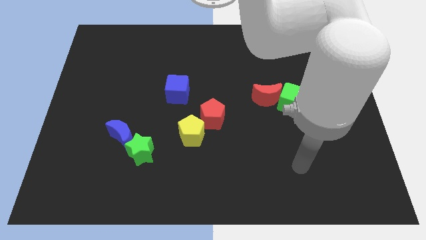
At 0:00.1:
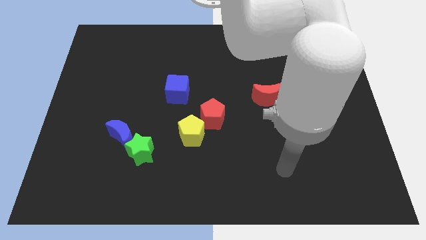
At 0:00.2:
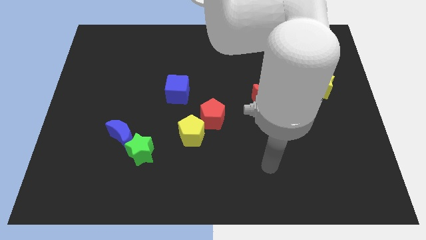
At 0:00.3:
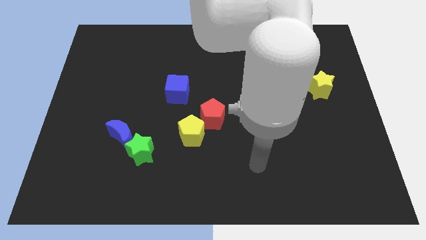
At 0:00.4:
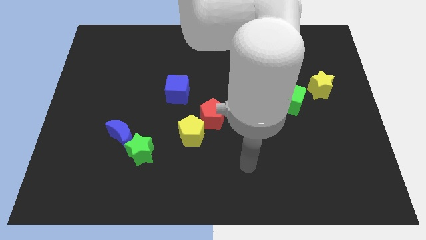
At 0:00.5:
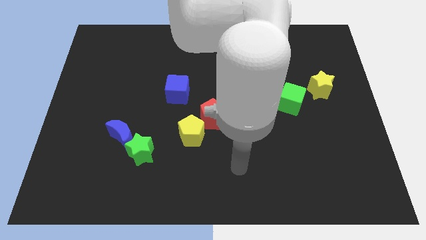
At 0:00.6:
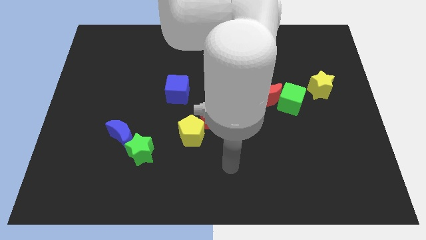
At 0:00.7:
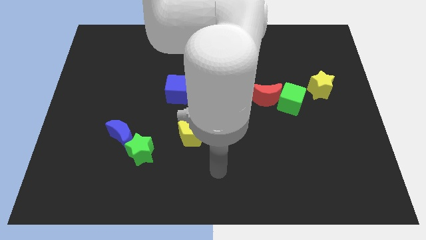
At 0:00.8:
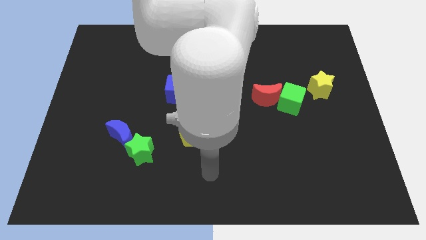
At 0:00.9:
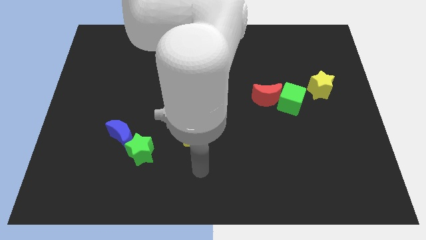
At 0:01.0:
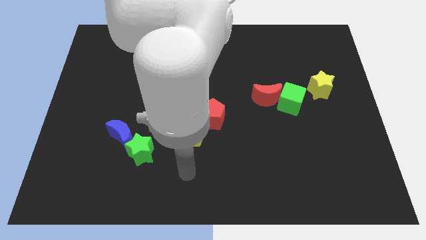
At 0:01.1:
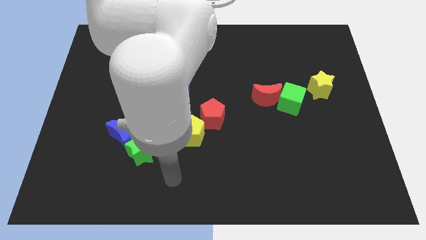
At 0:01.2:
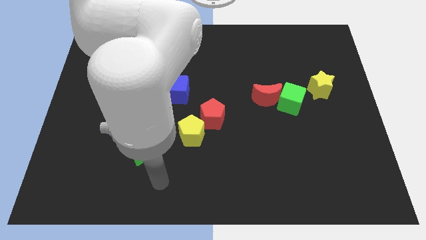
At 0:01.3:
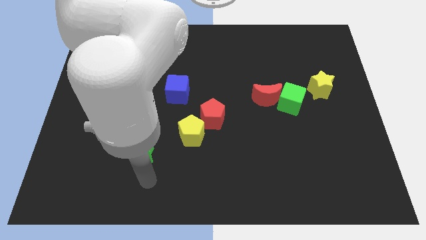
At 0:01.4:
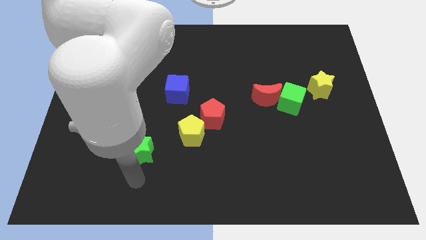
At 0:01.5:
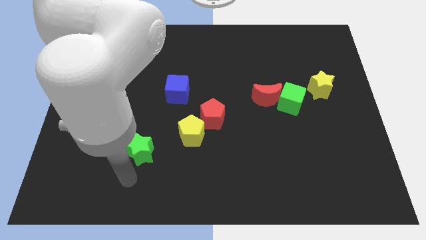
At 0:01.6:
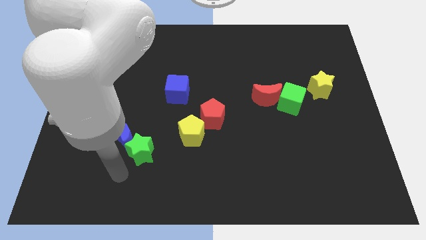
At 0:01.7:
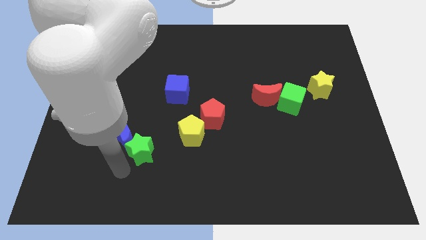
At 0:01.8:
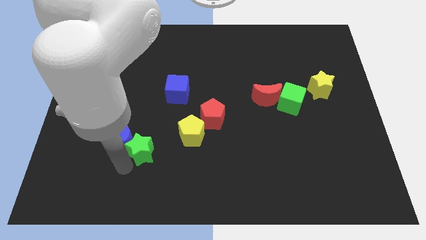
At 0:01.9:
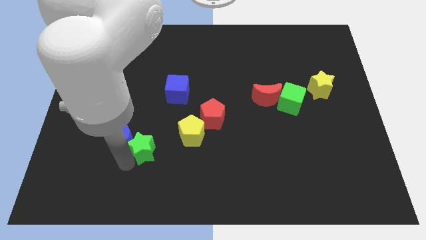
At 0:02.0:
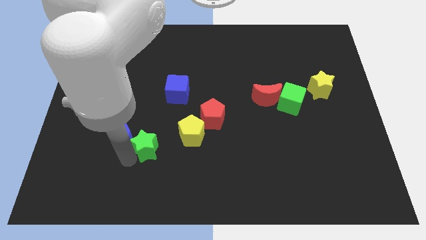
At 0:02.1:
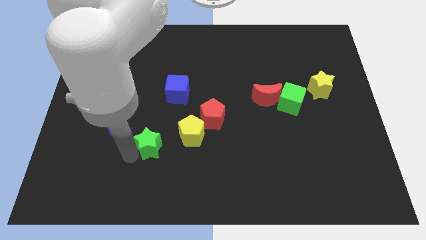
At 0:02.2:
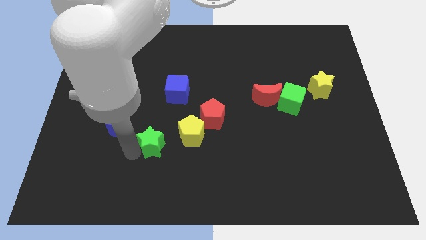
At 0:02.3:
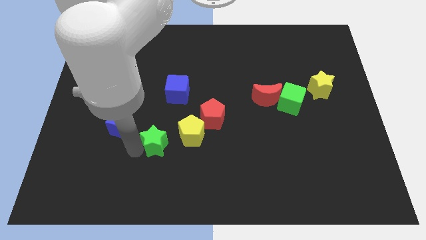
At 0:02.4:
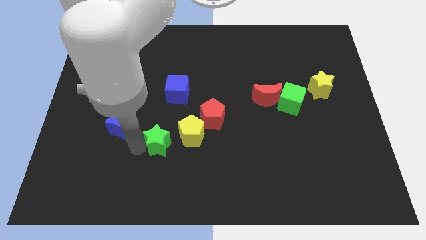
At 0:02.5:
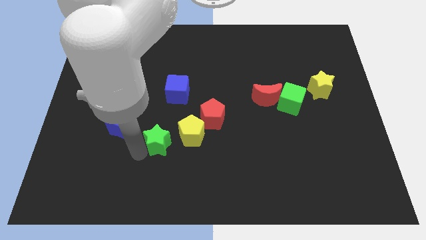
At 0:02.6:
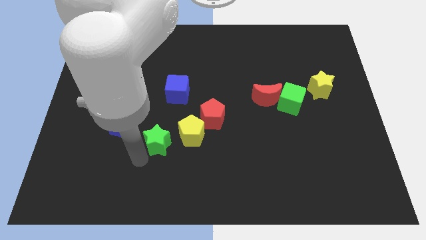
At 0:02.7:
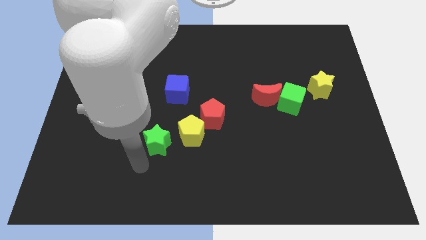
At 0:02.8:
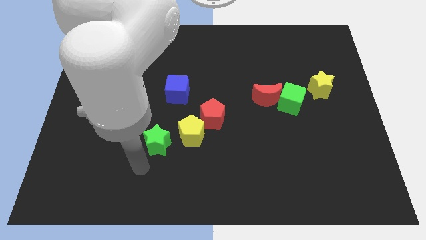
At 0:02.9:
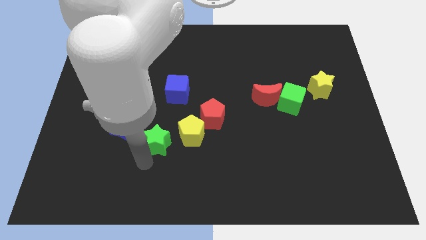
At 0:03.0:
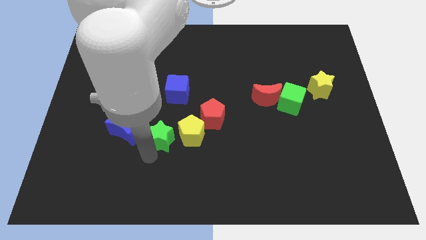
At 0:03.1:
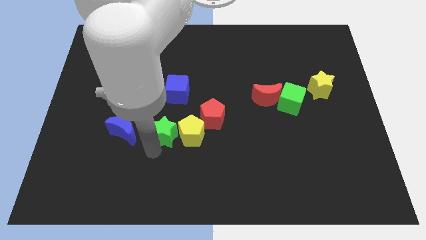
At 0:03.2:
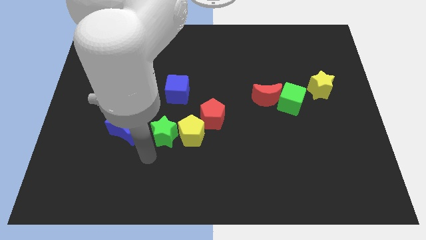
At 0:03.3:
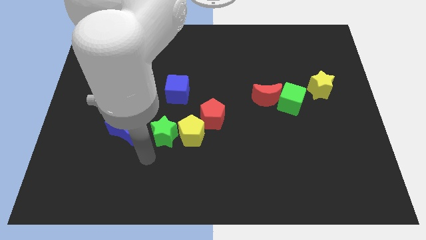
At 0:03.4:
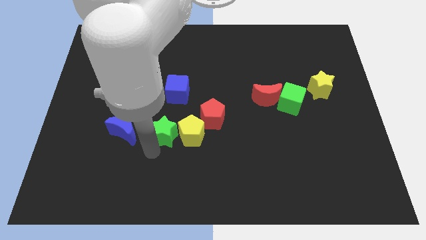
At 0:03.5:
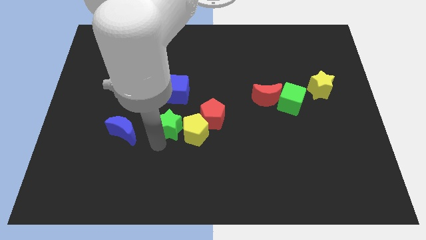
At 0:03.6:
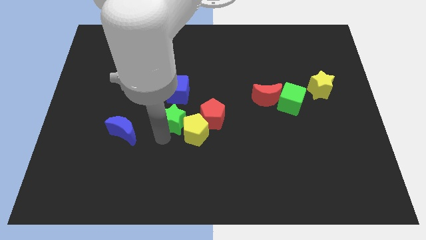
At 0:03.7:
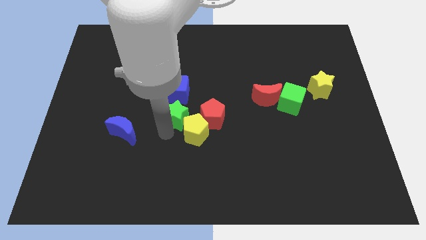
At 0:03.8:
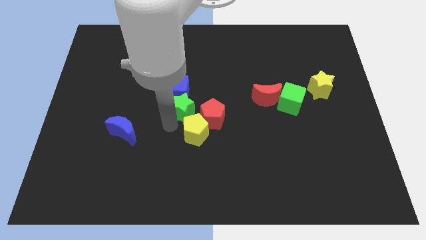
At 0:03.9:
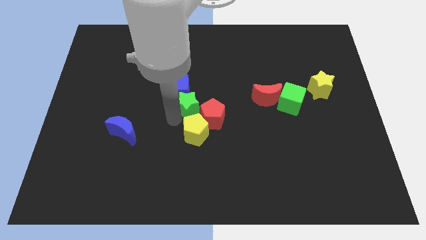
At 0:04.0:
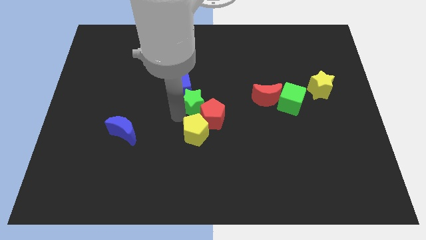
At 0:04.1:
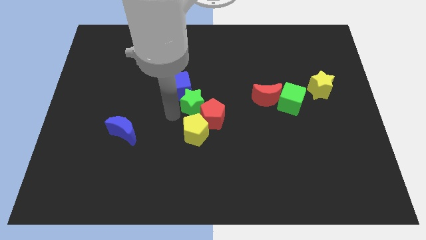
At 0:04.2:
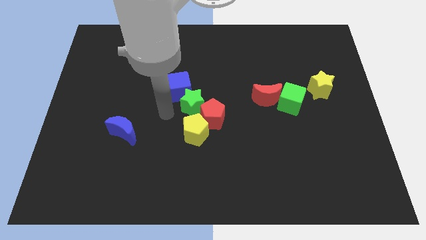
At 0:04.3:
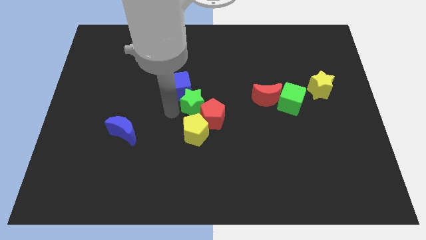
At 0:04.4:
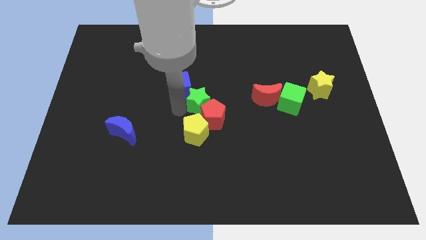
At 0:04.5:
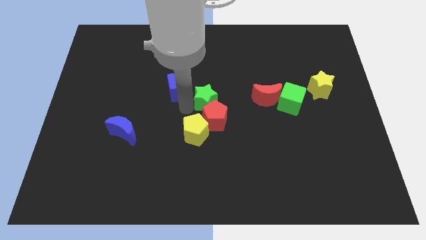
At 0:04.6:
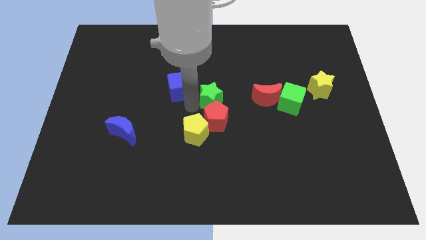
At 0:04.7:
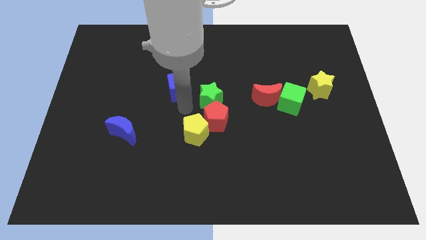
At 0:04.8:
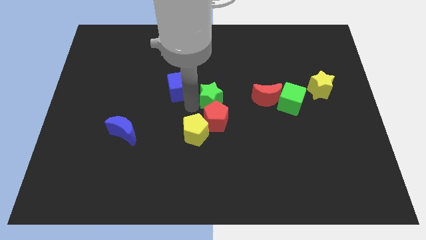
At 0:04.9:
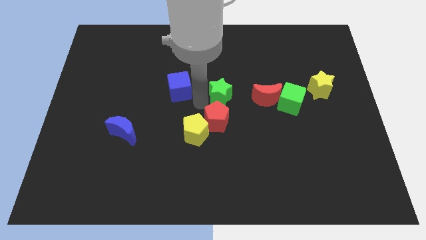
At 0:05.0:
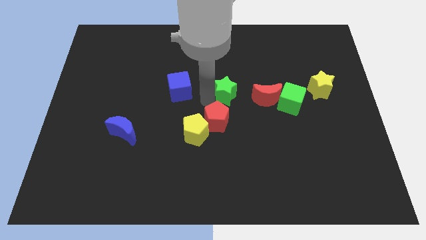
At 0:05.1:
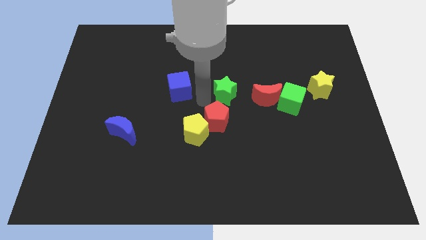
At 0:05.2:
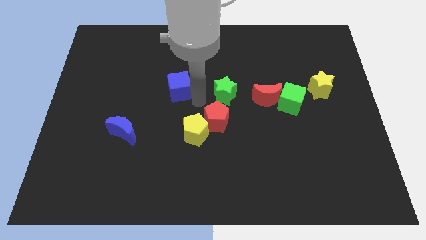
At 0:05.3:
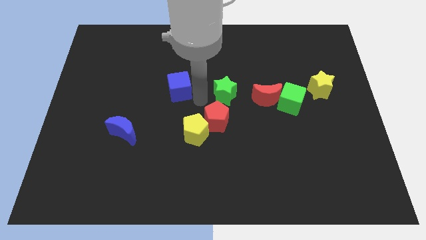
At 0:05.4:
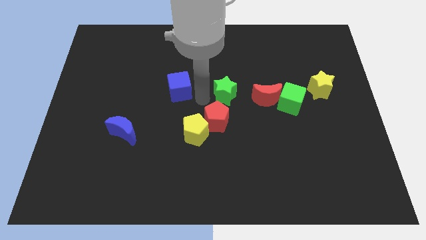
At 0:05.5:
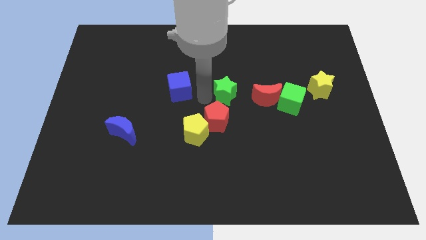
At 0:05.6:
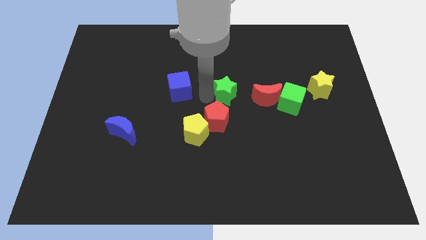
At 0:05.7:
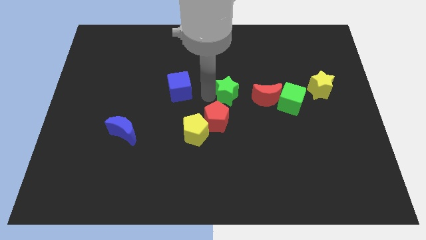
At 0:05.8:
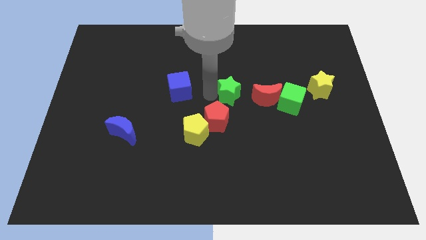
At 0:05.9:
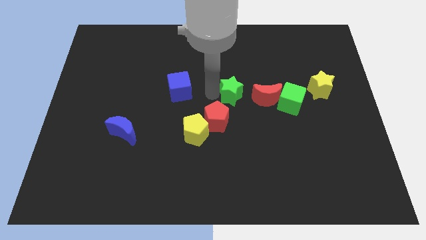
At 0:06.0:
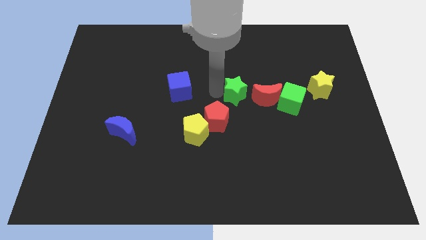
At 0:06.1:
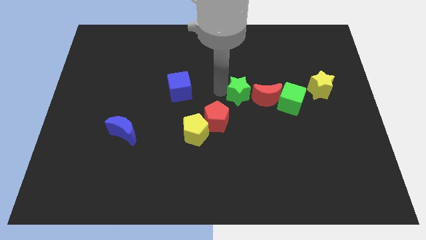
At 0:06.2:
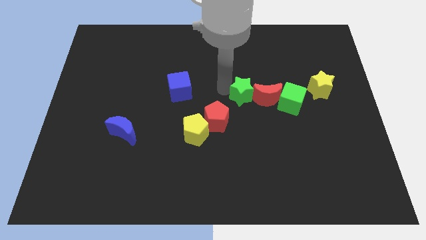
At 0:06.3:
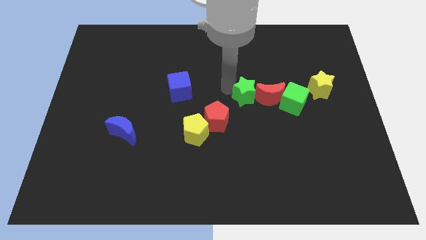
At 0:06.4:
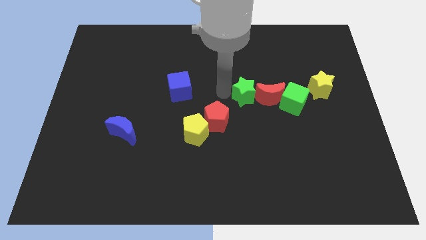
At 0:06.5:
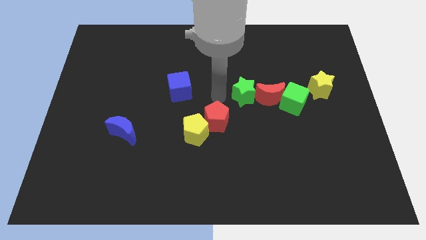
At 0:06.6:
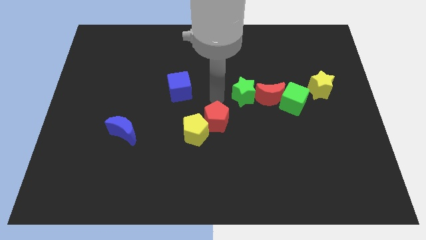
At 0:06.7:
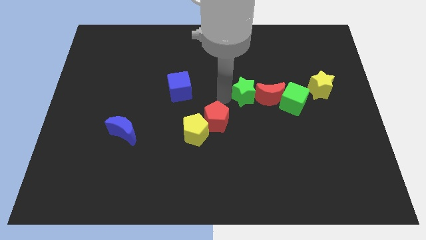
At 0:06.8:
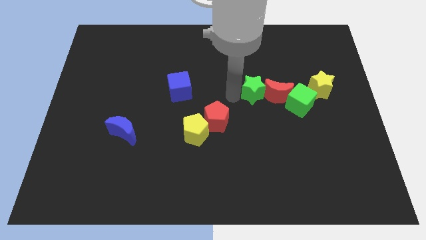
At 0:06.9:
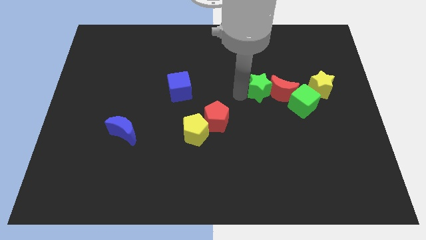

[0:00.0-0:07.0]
push the green star to the left of the yellow star
